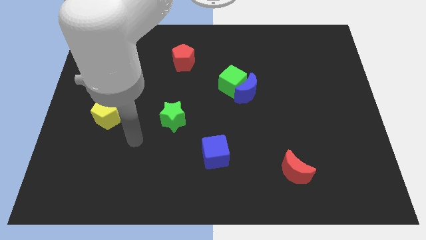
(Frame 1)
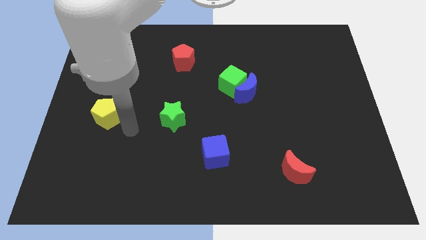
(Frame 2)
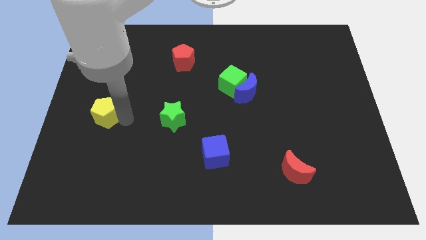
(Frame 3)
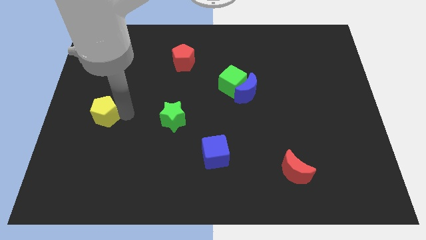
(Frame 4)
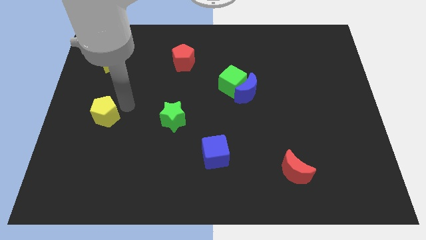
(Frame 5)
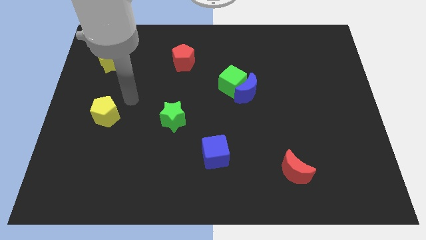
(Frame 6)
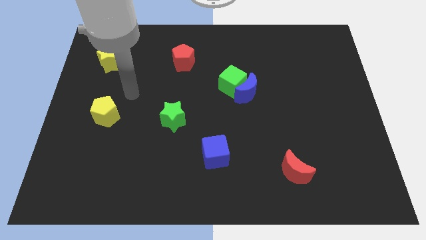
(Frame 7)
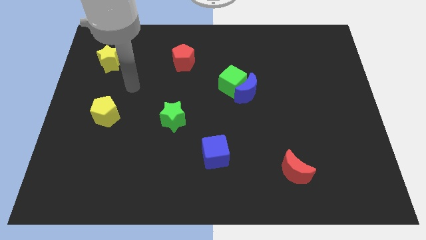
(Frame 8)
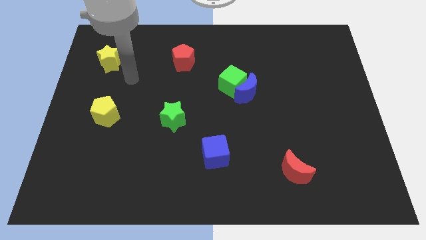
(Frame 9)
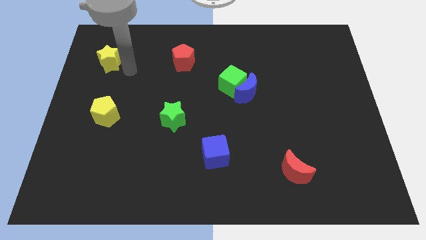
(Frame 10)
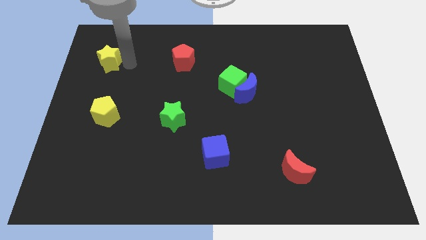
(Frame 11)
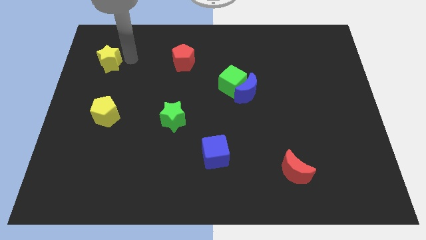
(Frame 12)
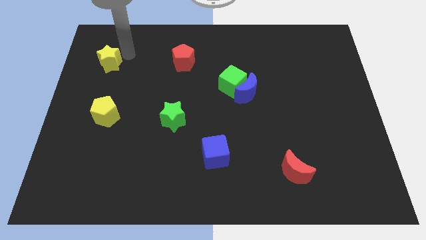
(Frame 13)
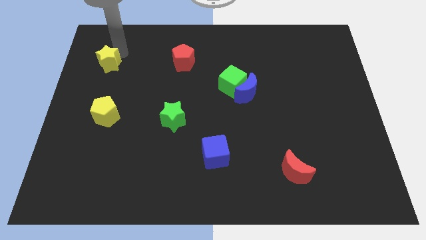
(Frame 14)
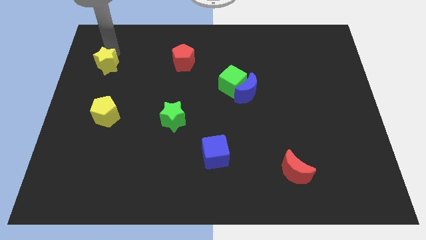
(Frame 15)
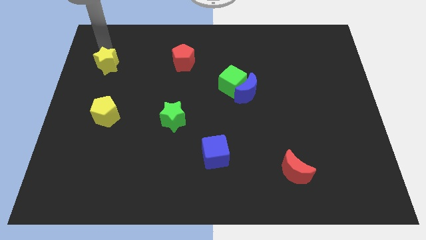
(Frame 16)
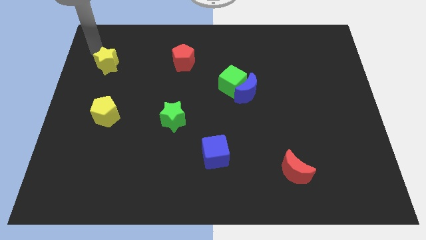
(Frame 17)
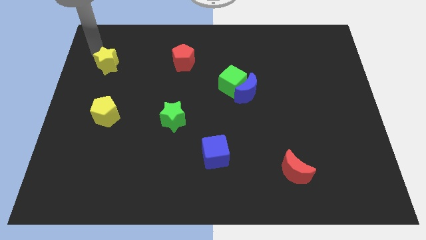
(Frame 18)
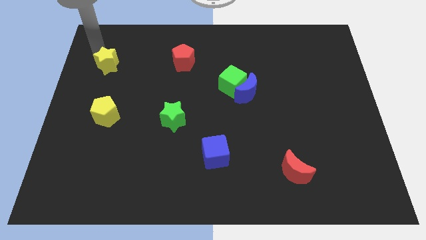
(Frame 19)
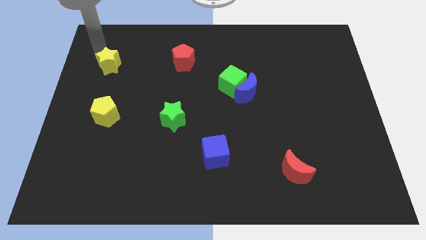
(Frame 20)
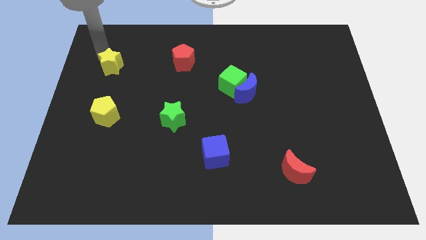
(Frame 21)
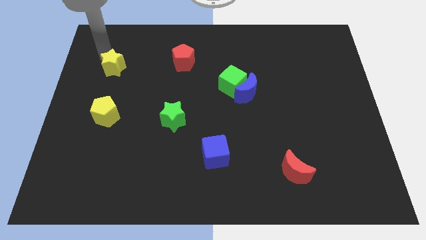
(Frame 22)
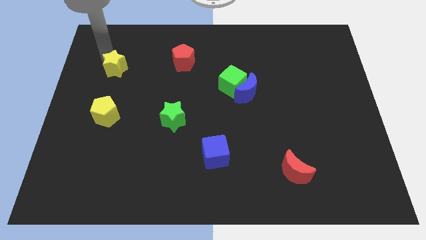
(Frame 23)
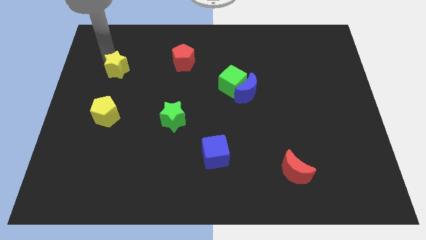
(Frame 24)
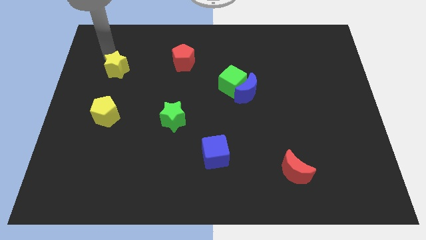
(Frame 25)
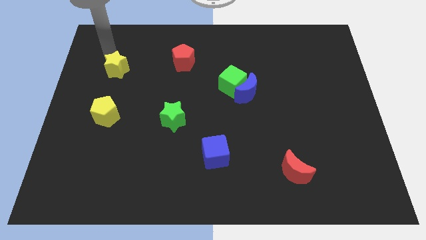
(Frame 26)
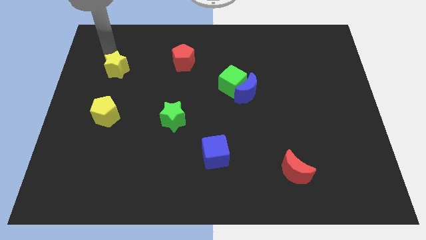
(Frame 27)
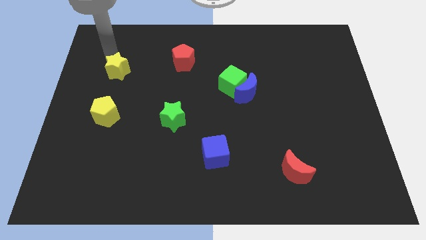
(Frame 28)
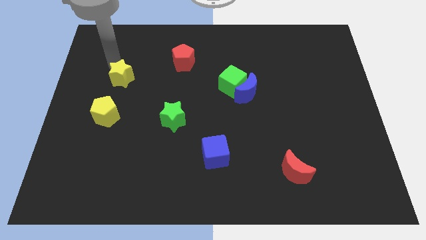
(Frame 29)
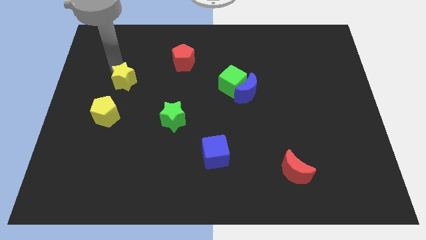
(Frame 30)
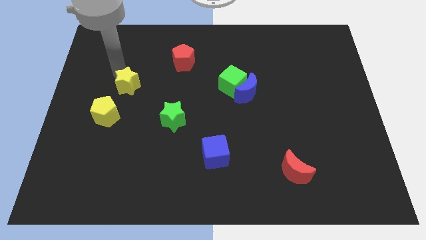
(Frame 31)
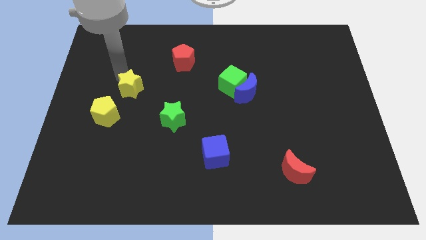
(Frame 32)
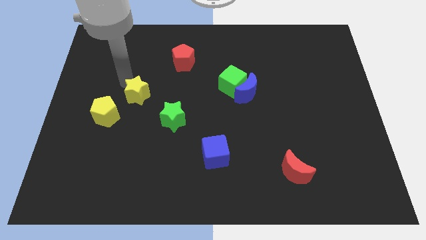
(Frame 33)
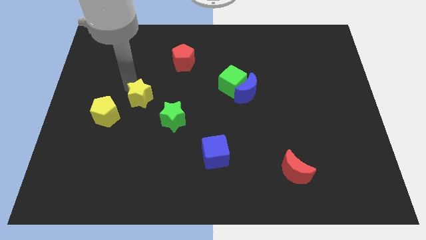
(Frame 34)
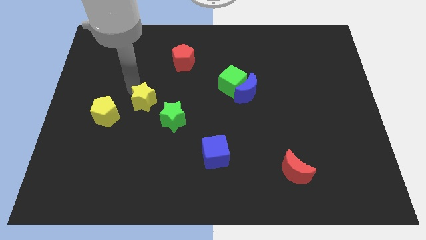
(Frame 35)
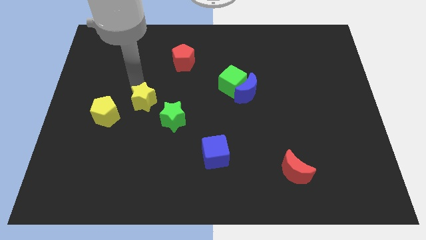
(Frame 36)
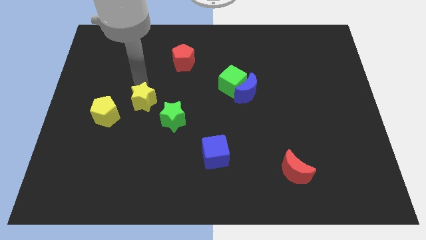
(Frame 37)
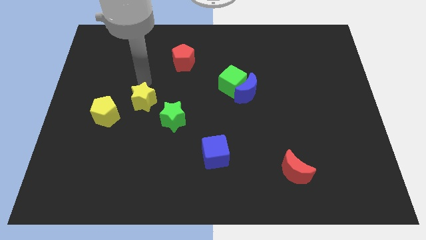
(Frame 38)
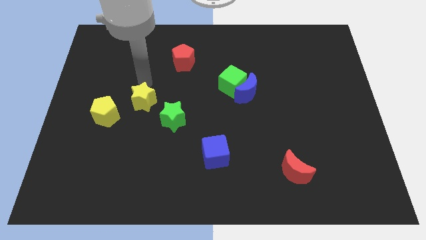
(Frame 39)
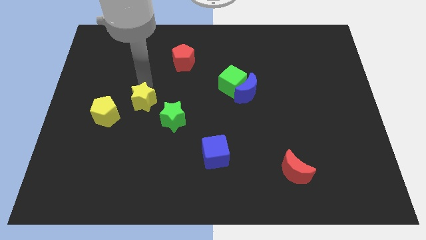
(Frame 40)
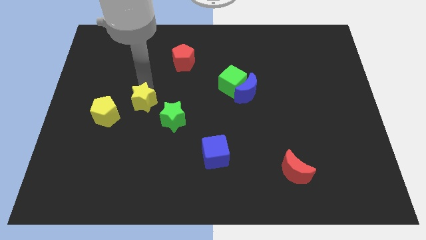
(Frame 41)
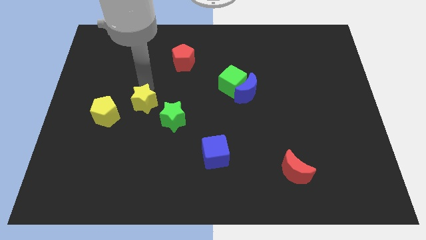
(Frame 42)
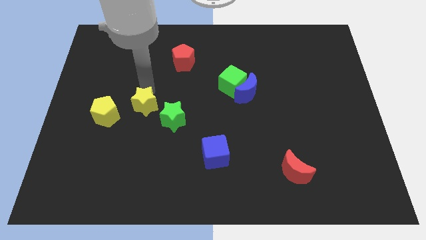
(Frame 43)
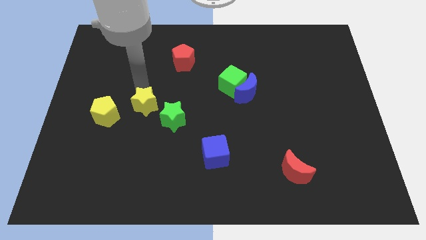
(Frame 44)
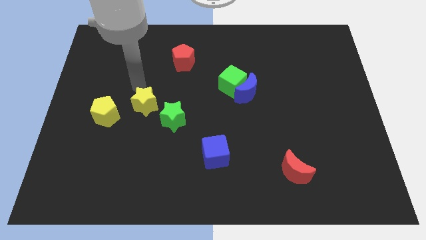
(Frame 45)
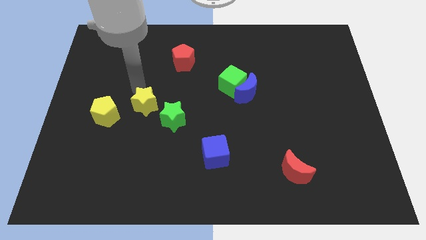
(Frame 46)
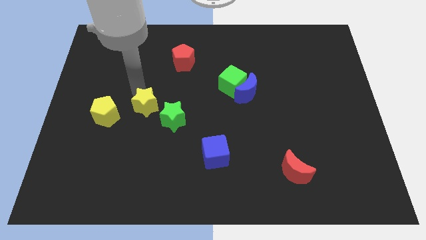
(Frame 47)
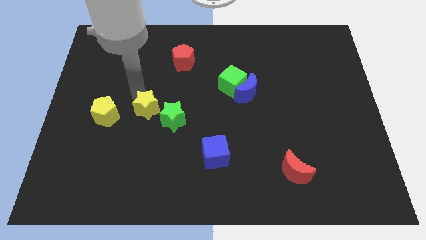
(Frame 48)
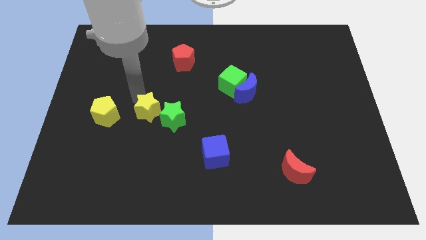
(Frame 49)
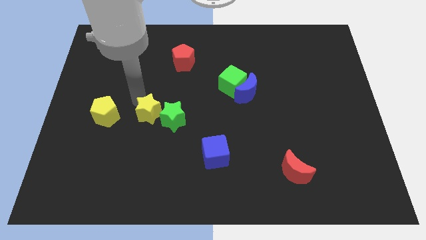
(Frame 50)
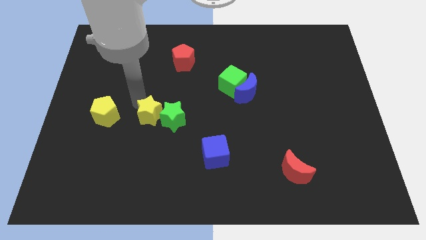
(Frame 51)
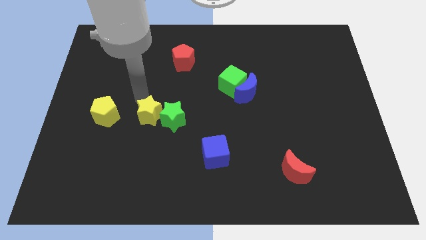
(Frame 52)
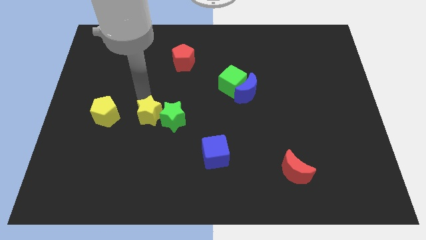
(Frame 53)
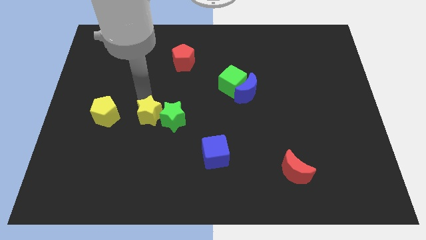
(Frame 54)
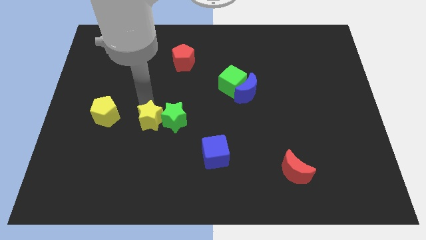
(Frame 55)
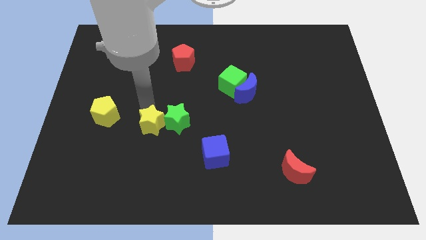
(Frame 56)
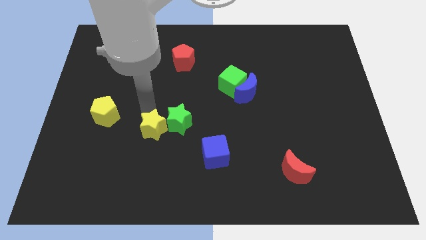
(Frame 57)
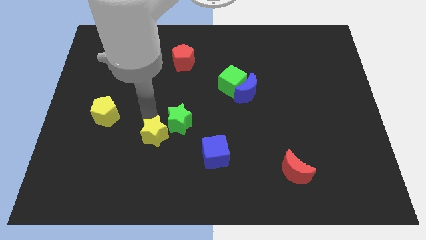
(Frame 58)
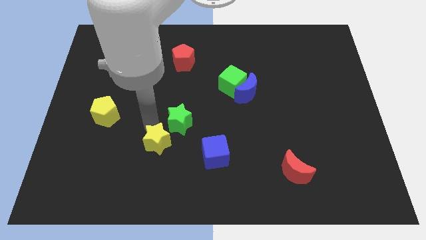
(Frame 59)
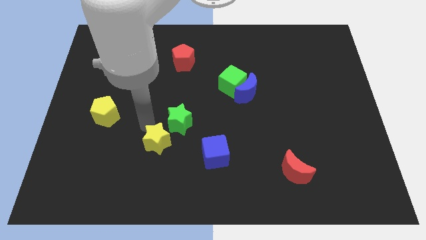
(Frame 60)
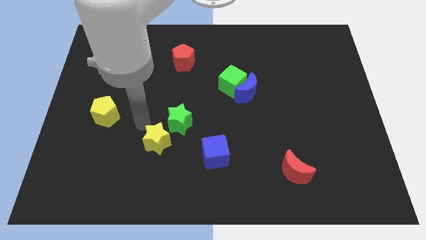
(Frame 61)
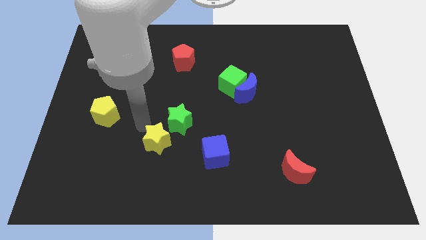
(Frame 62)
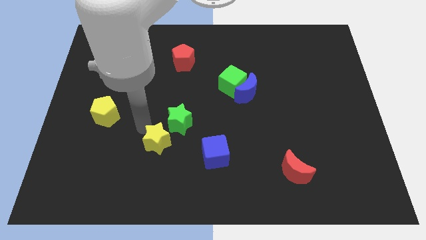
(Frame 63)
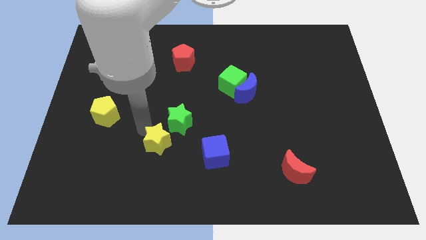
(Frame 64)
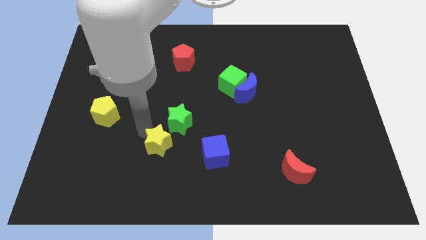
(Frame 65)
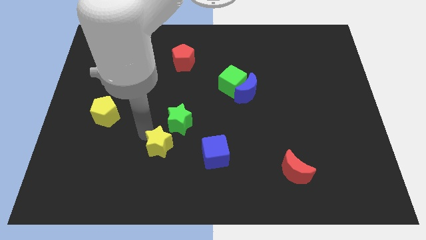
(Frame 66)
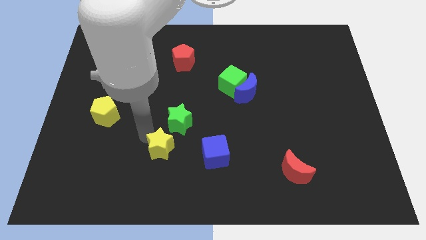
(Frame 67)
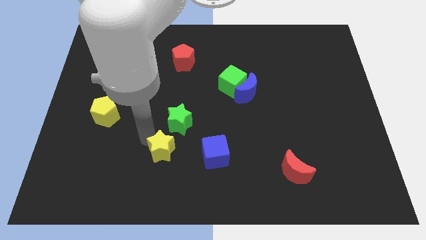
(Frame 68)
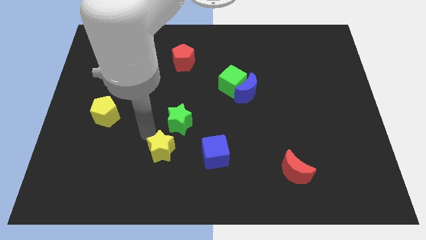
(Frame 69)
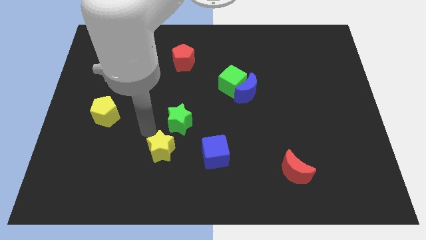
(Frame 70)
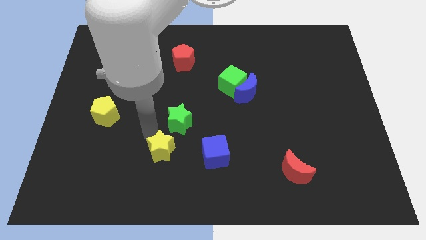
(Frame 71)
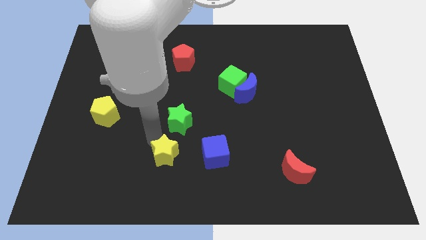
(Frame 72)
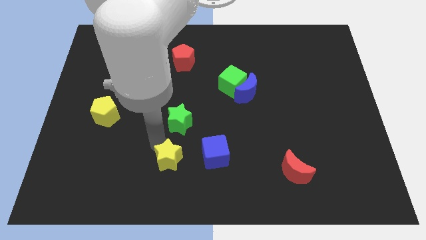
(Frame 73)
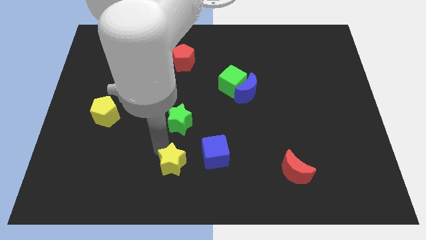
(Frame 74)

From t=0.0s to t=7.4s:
push the yellow star to the bottom
